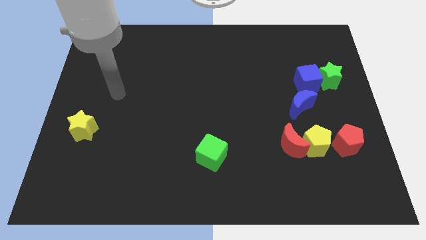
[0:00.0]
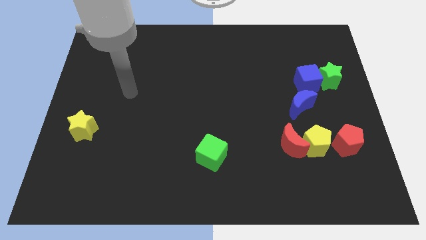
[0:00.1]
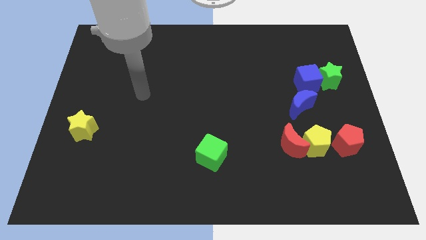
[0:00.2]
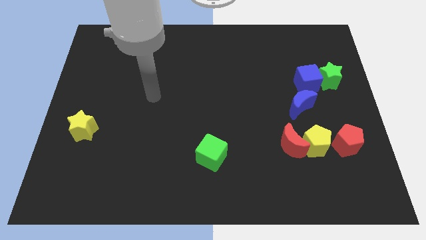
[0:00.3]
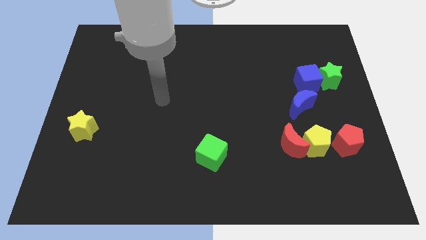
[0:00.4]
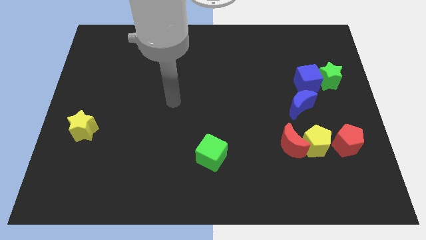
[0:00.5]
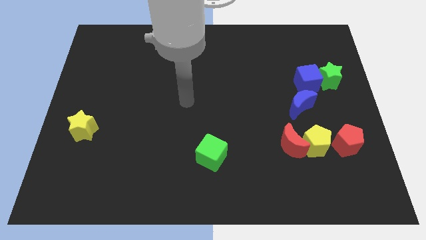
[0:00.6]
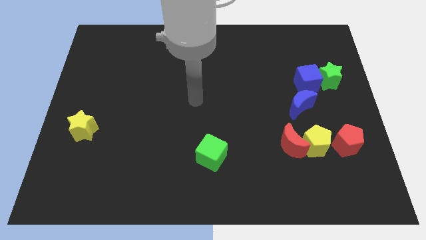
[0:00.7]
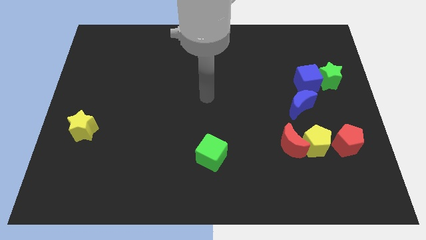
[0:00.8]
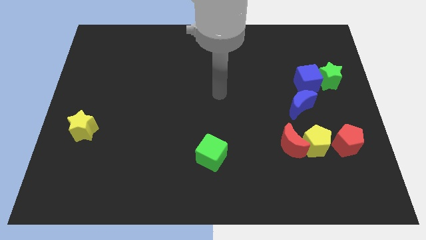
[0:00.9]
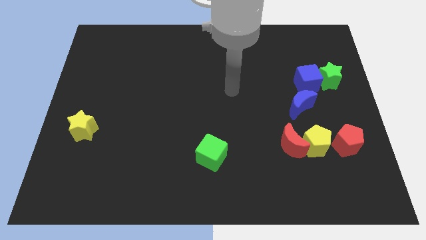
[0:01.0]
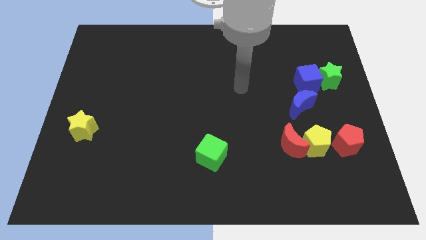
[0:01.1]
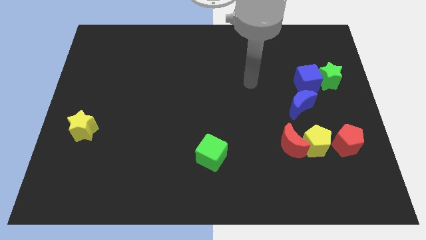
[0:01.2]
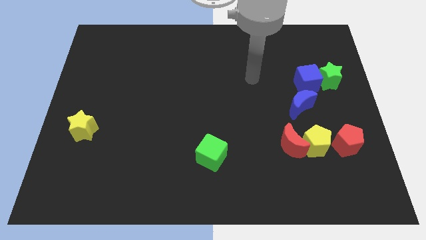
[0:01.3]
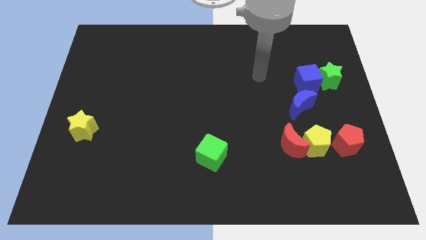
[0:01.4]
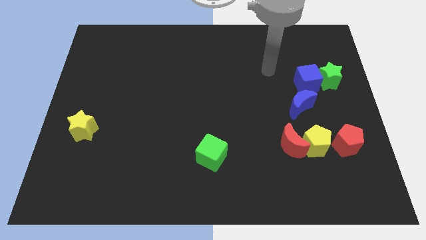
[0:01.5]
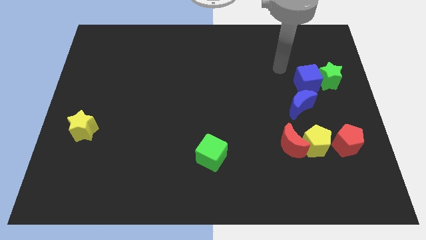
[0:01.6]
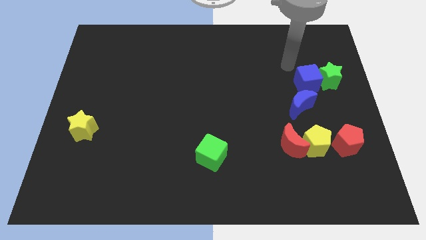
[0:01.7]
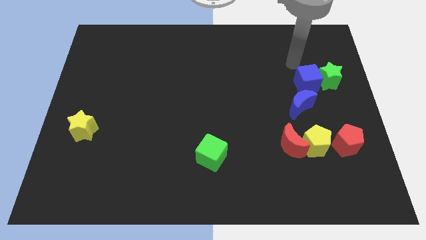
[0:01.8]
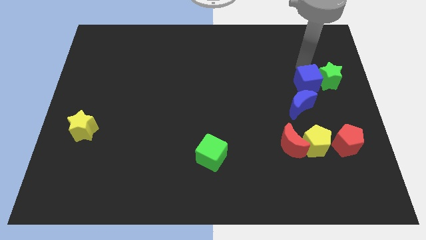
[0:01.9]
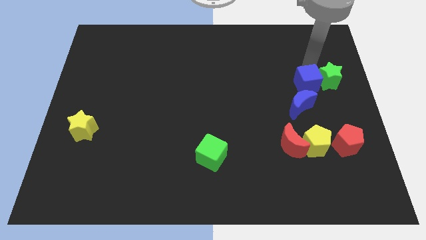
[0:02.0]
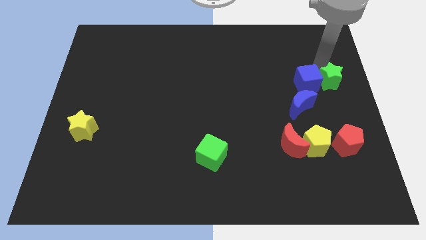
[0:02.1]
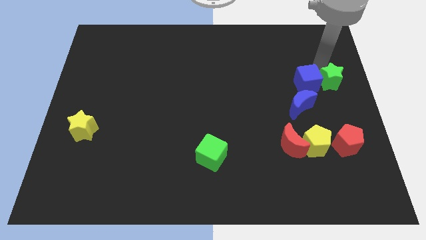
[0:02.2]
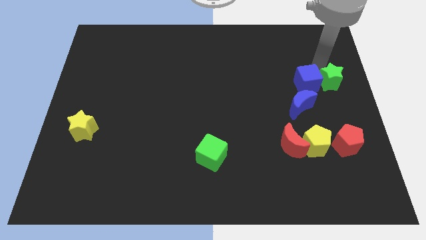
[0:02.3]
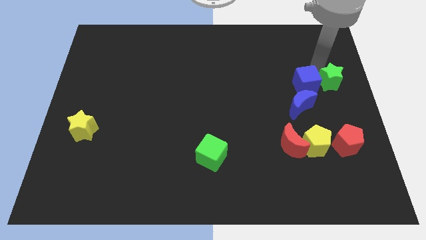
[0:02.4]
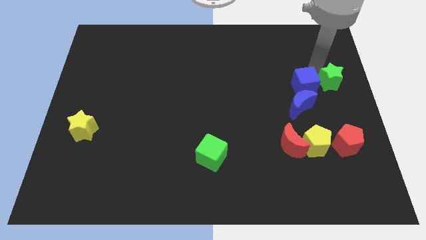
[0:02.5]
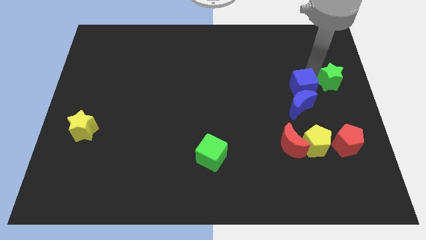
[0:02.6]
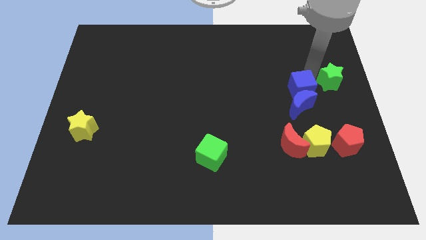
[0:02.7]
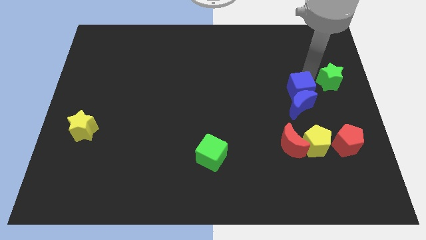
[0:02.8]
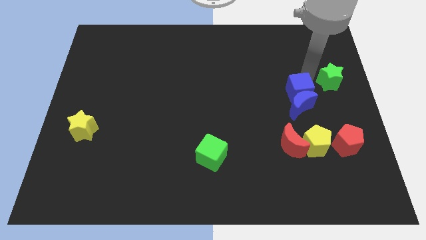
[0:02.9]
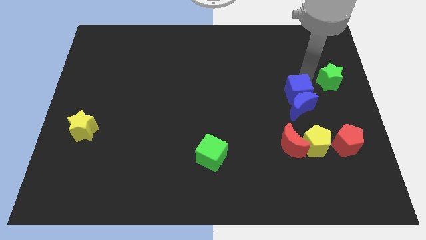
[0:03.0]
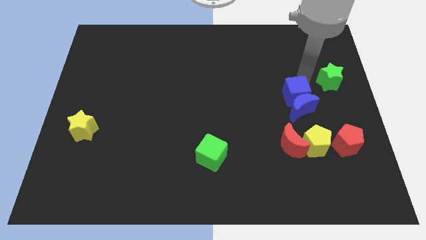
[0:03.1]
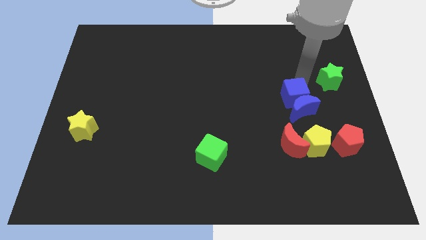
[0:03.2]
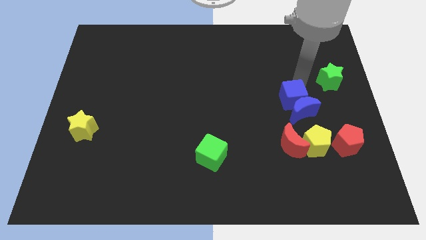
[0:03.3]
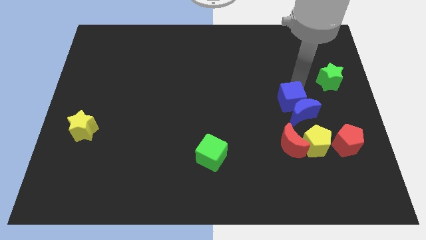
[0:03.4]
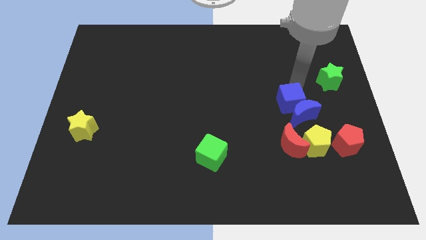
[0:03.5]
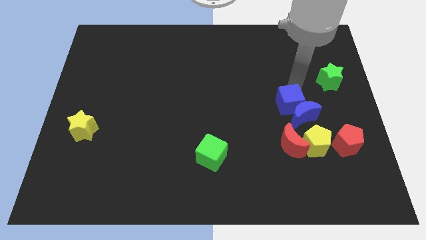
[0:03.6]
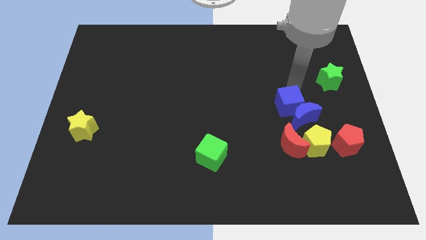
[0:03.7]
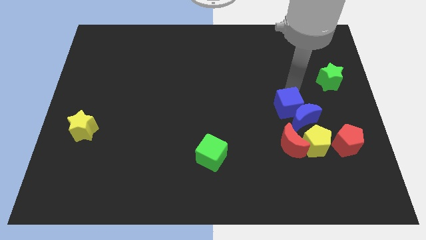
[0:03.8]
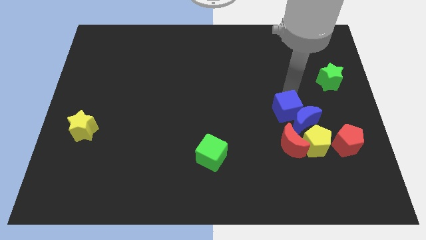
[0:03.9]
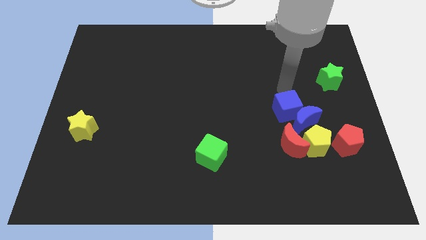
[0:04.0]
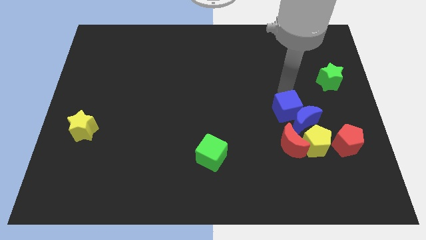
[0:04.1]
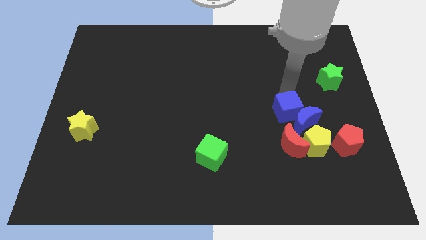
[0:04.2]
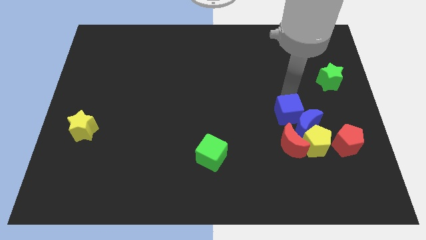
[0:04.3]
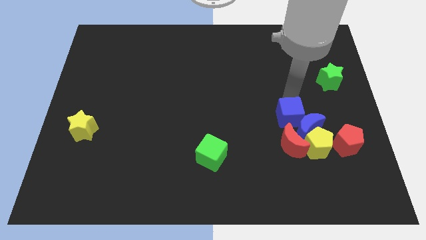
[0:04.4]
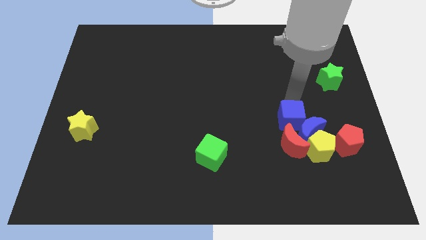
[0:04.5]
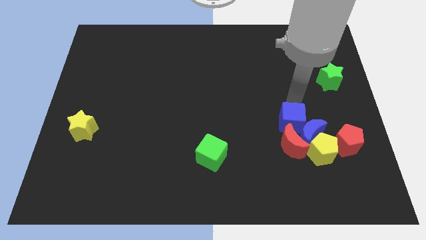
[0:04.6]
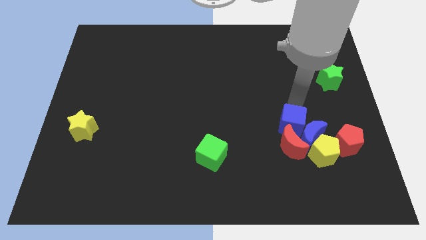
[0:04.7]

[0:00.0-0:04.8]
put the blue cube close to the red moon

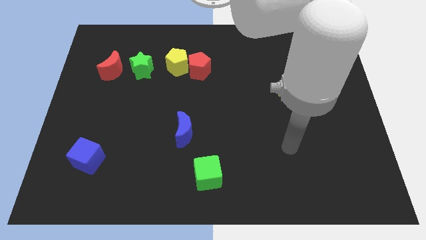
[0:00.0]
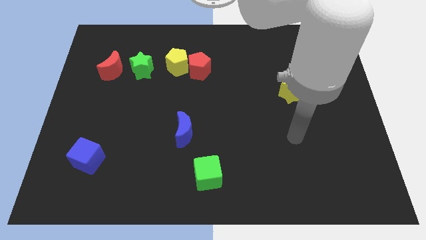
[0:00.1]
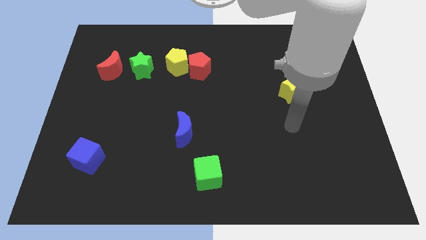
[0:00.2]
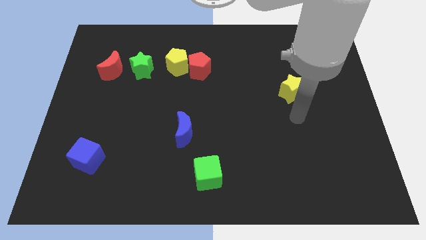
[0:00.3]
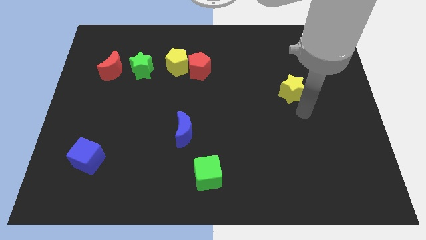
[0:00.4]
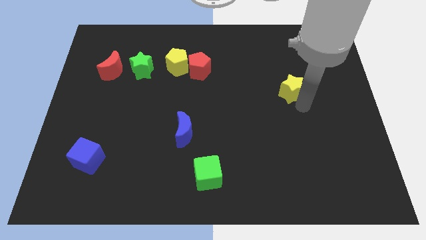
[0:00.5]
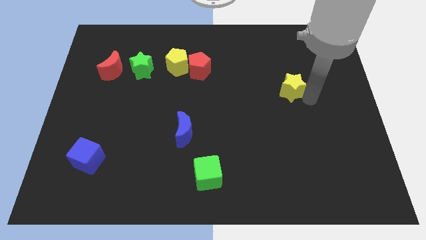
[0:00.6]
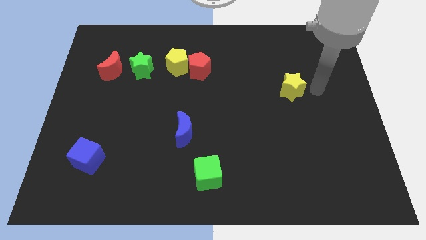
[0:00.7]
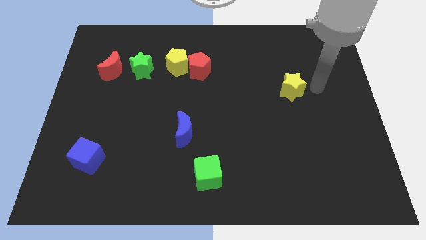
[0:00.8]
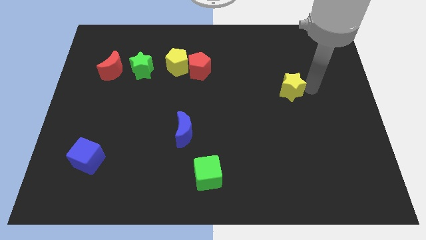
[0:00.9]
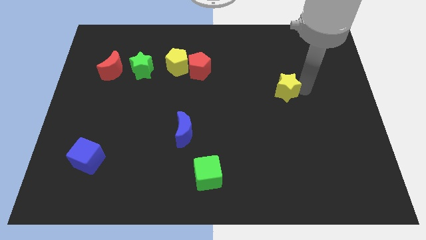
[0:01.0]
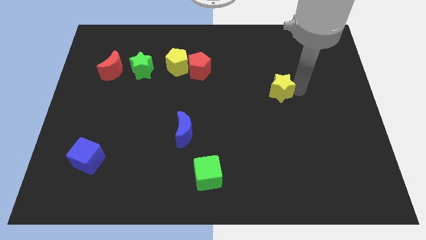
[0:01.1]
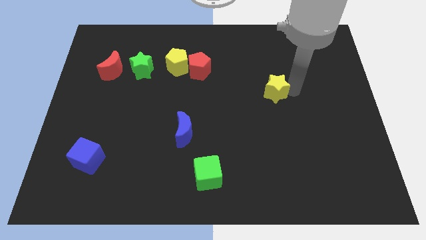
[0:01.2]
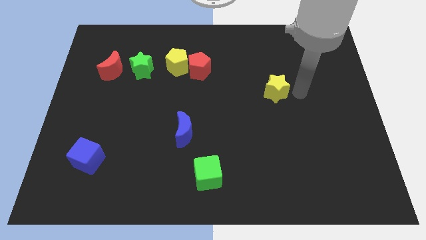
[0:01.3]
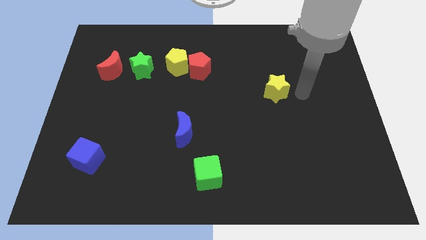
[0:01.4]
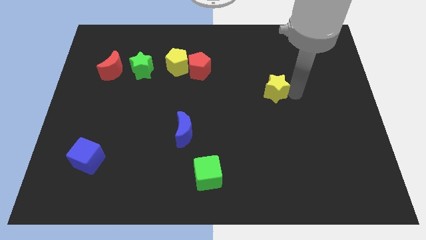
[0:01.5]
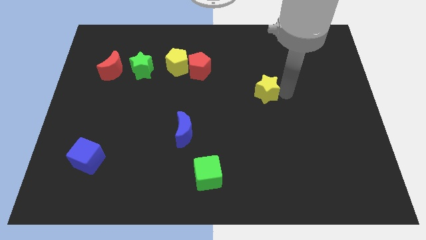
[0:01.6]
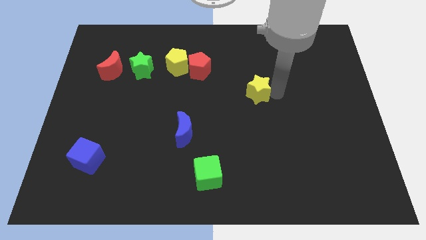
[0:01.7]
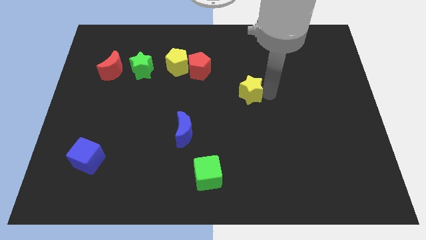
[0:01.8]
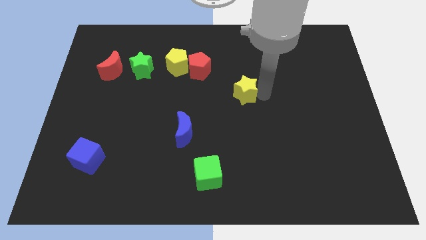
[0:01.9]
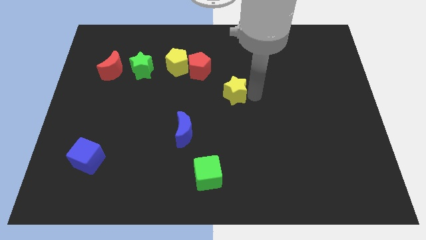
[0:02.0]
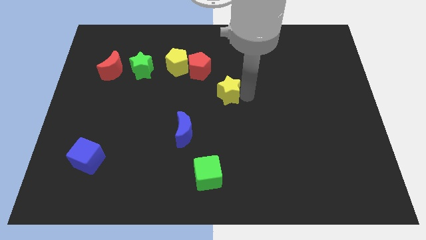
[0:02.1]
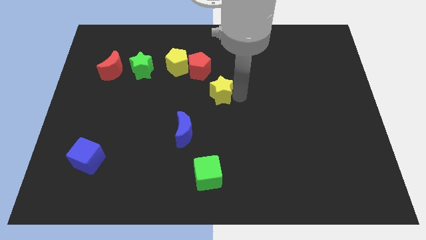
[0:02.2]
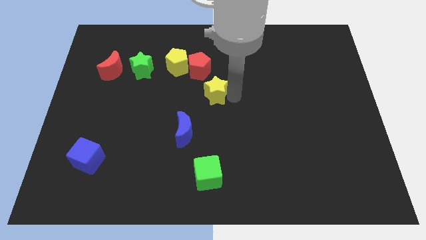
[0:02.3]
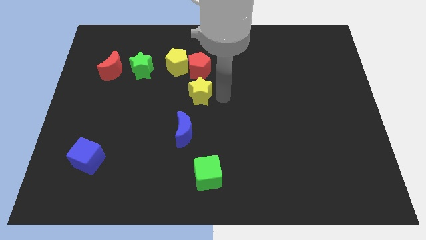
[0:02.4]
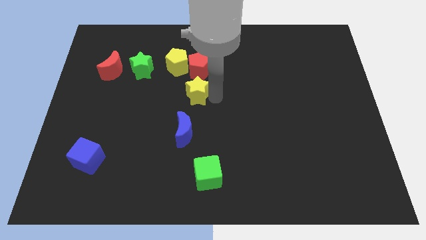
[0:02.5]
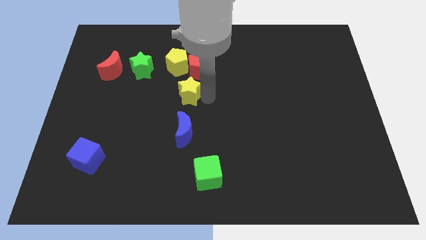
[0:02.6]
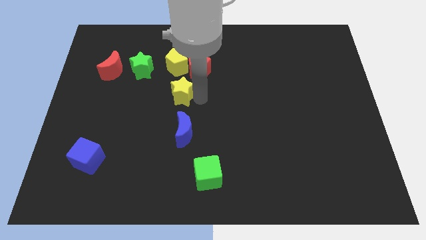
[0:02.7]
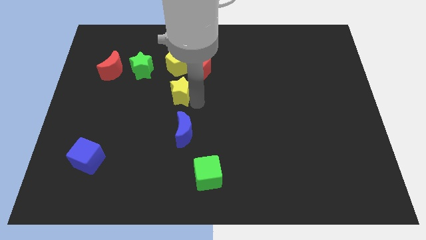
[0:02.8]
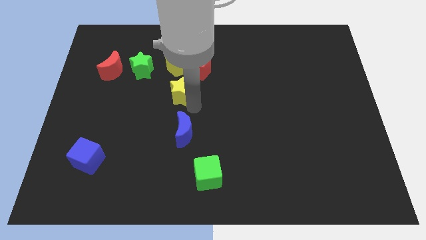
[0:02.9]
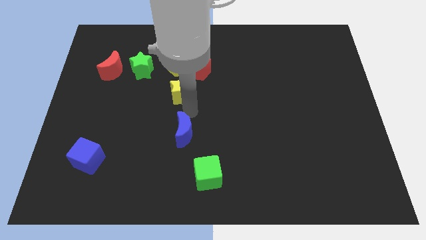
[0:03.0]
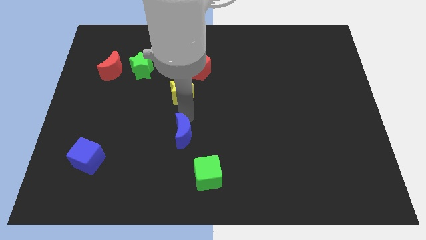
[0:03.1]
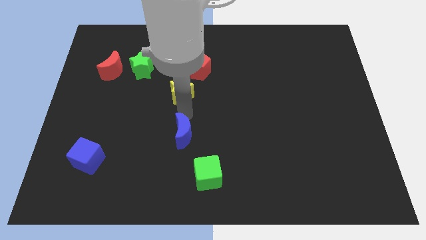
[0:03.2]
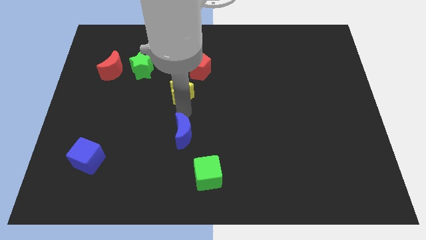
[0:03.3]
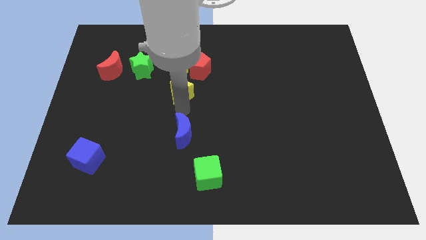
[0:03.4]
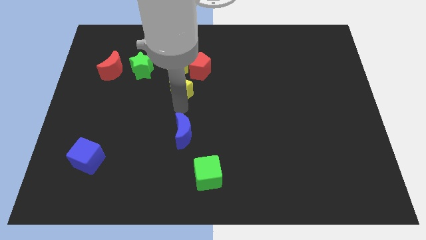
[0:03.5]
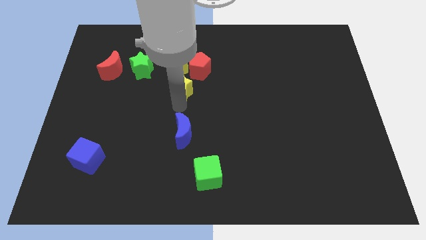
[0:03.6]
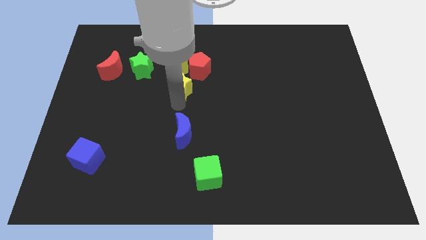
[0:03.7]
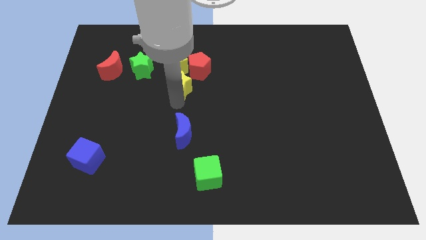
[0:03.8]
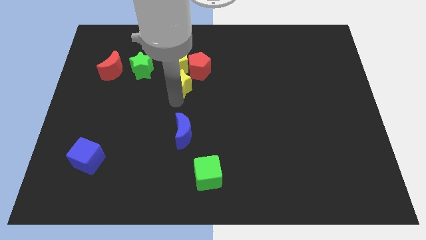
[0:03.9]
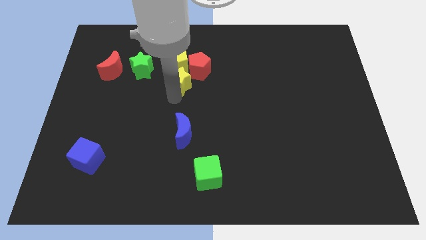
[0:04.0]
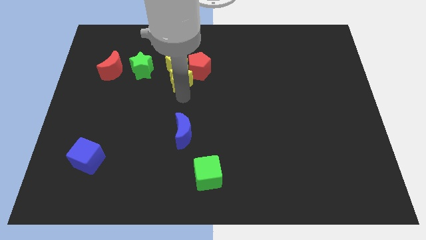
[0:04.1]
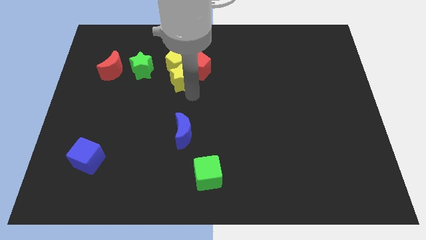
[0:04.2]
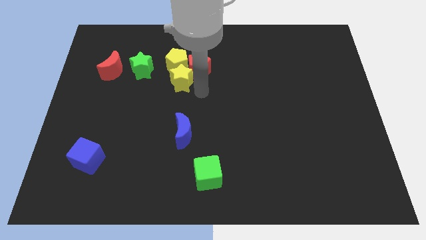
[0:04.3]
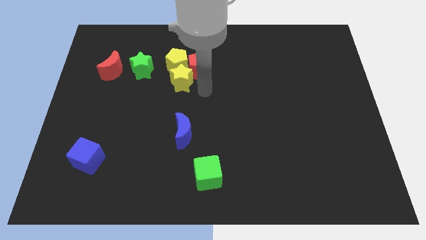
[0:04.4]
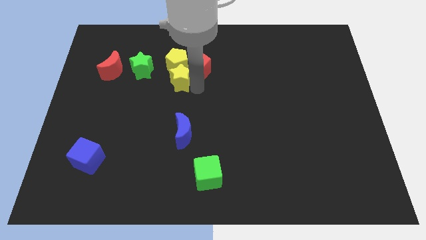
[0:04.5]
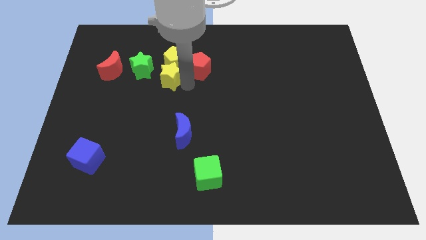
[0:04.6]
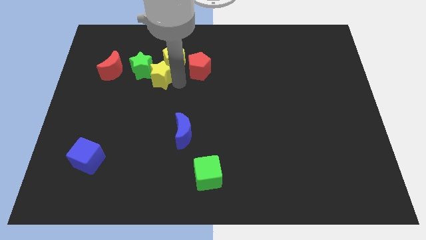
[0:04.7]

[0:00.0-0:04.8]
move the yellow star to the green star
